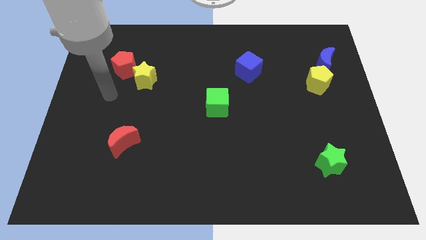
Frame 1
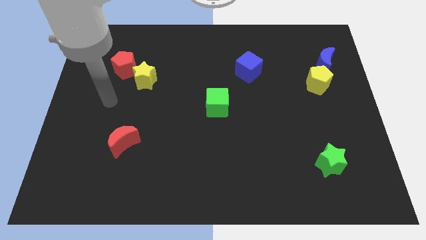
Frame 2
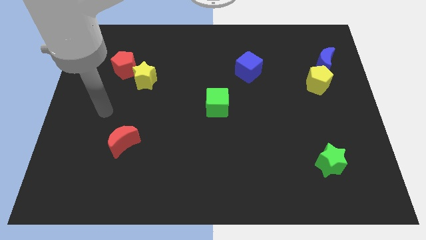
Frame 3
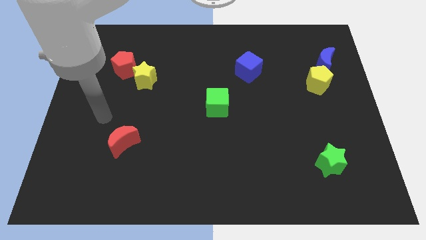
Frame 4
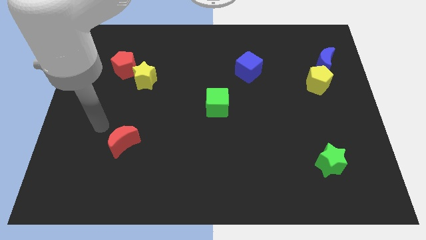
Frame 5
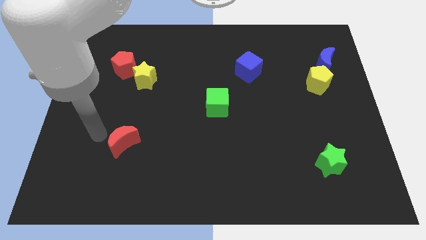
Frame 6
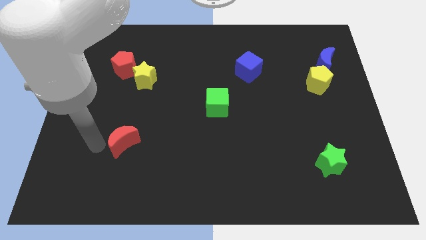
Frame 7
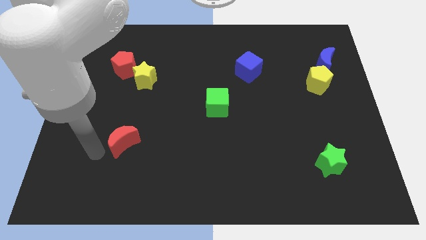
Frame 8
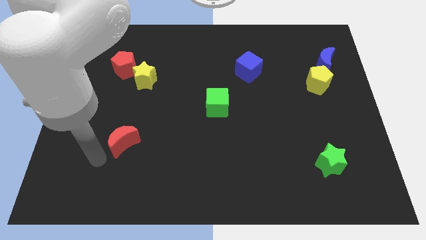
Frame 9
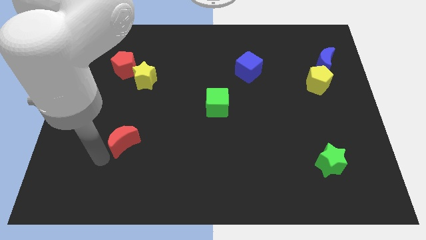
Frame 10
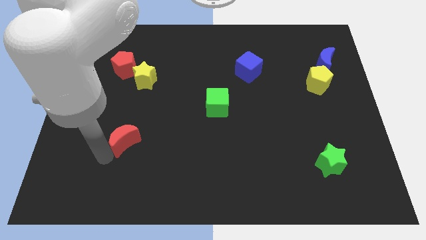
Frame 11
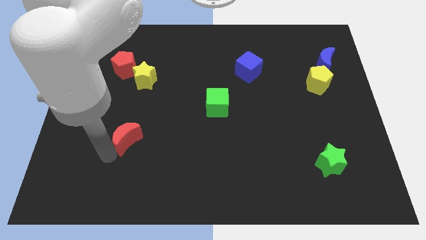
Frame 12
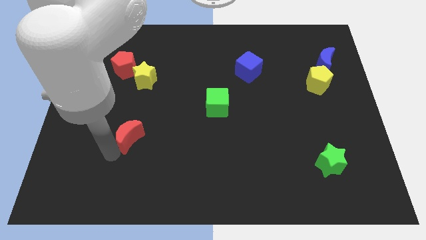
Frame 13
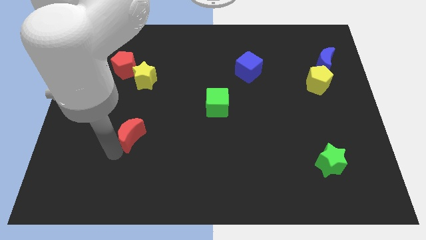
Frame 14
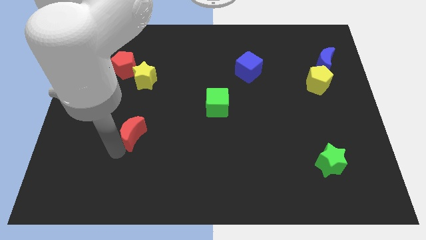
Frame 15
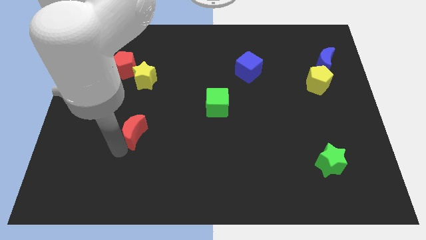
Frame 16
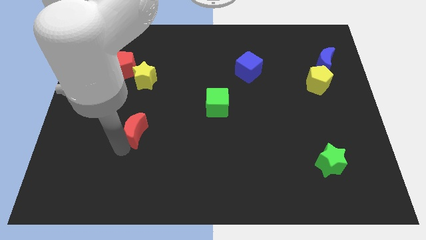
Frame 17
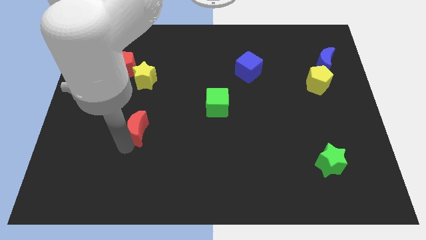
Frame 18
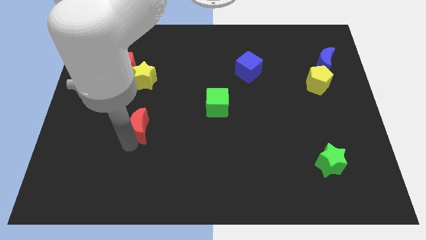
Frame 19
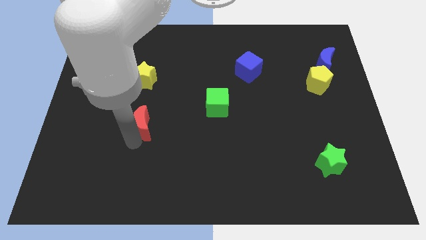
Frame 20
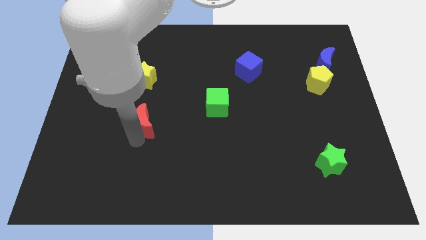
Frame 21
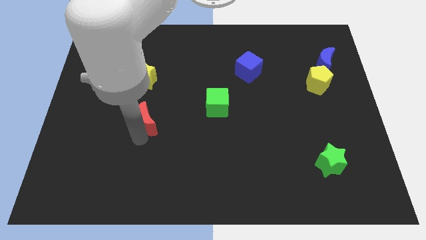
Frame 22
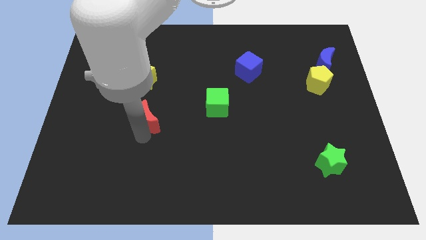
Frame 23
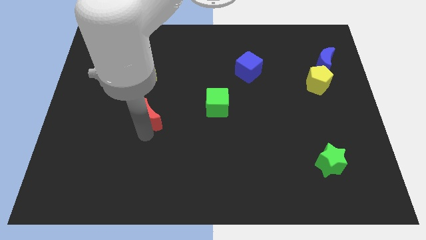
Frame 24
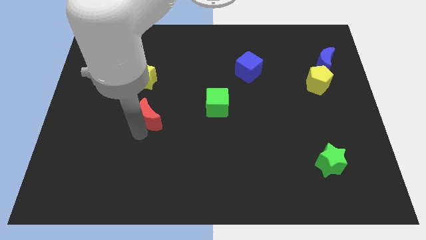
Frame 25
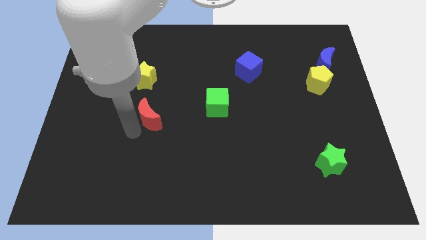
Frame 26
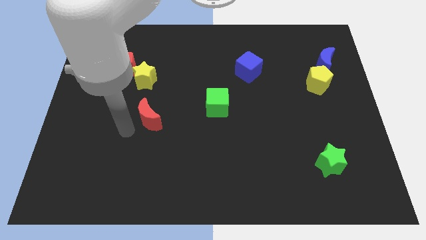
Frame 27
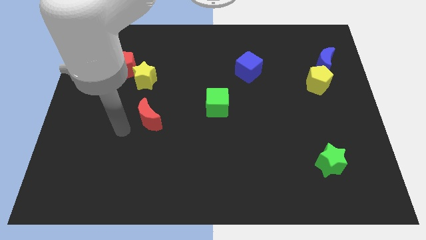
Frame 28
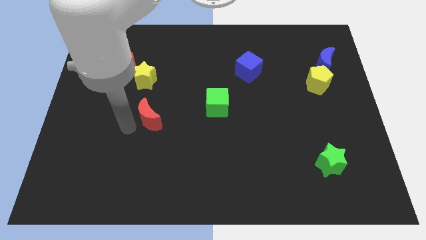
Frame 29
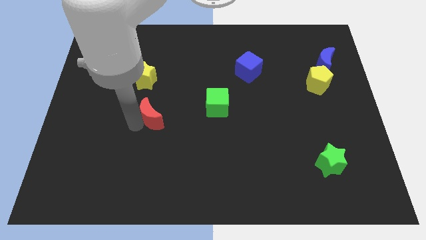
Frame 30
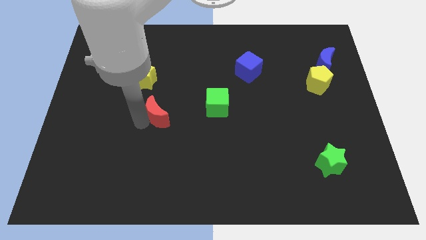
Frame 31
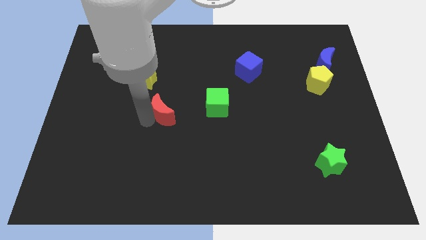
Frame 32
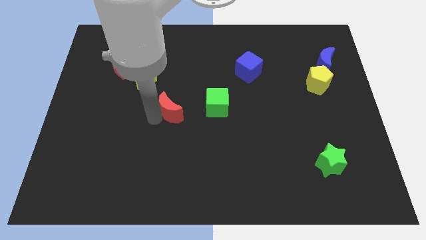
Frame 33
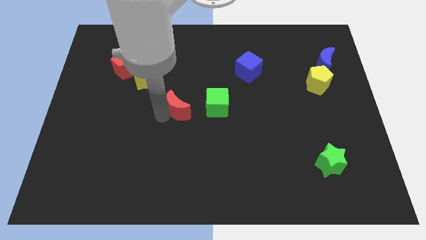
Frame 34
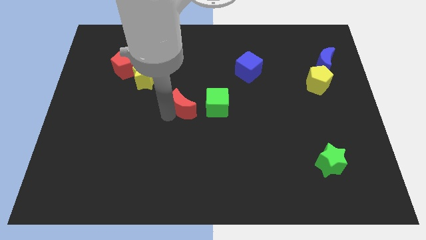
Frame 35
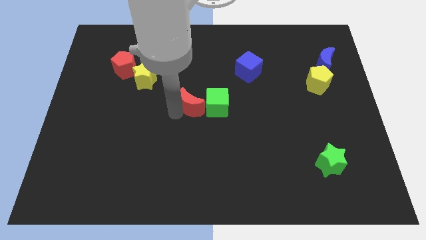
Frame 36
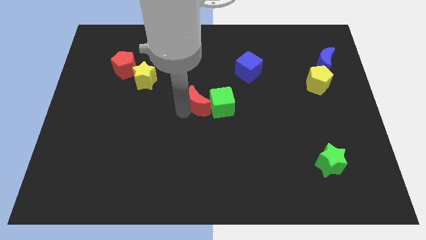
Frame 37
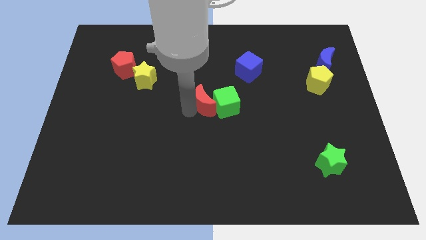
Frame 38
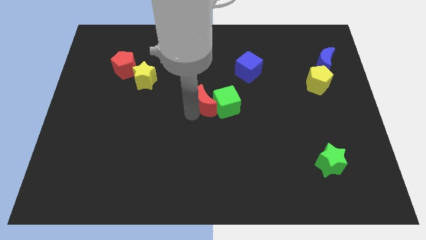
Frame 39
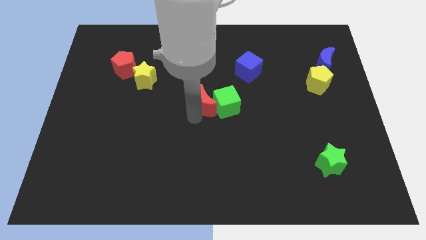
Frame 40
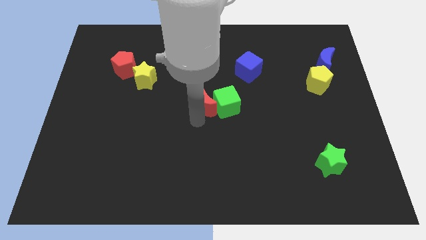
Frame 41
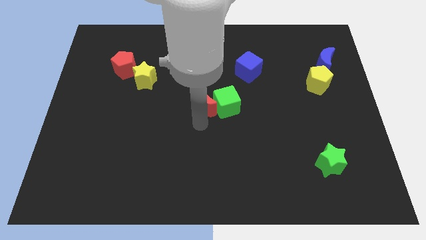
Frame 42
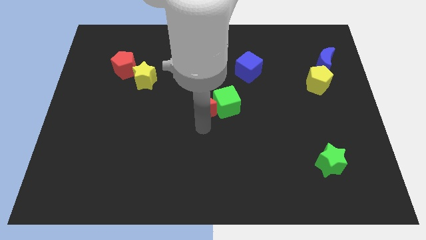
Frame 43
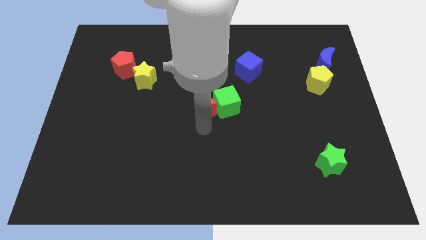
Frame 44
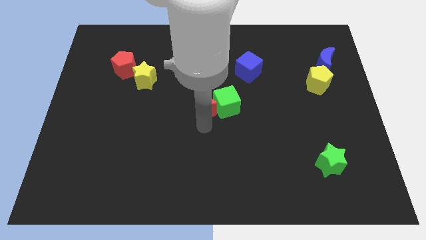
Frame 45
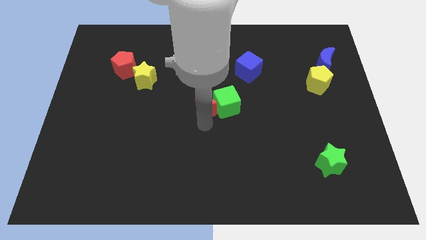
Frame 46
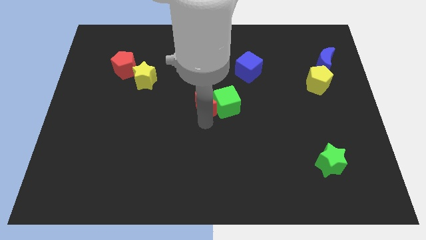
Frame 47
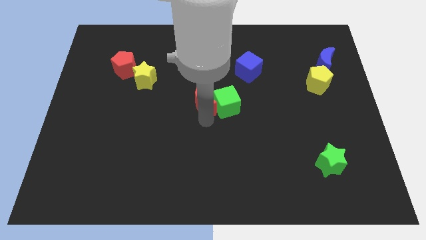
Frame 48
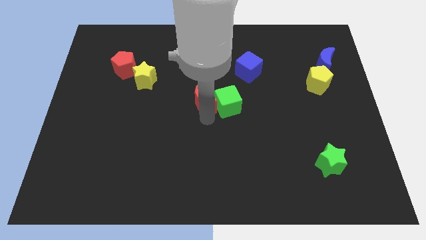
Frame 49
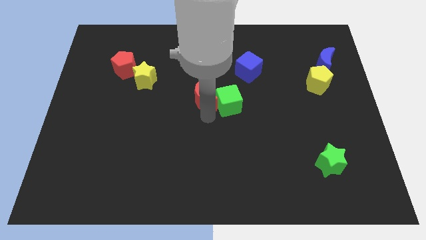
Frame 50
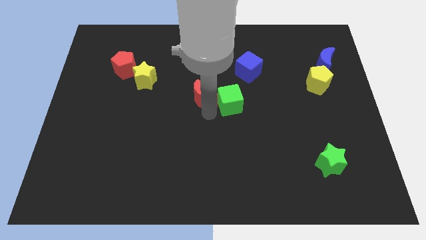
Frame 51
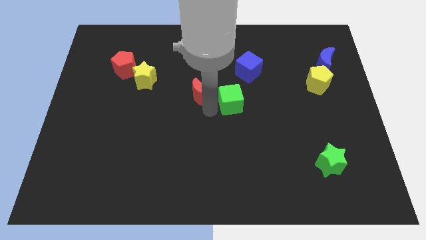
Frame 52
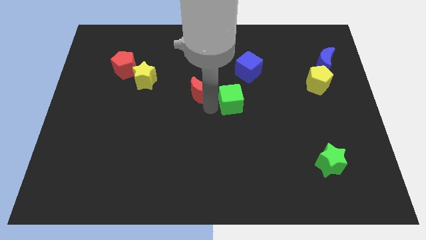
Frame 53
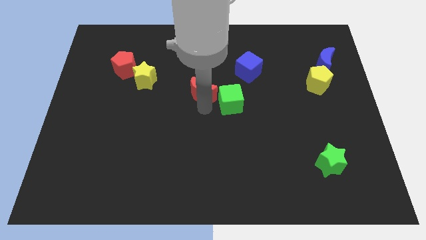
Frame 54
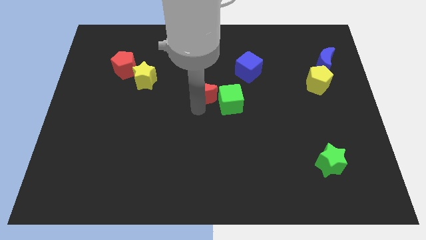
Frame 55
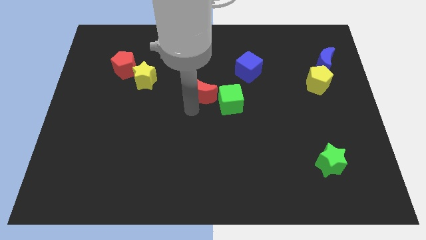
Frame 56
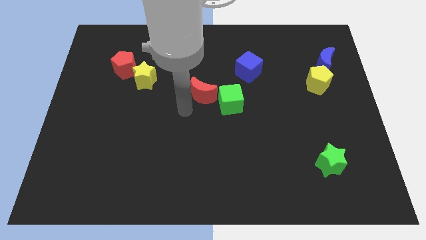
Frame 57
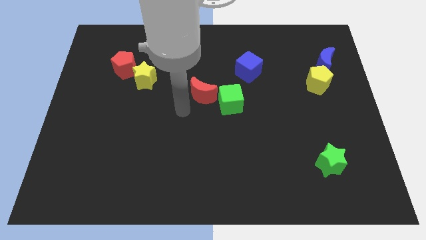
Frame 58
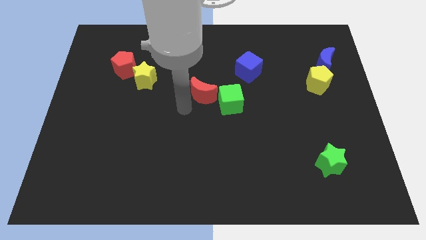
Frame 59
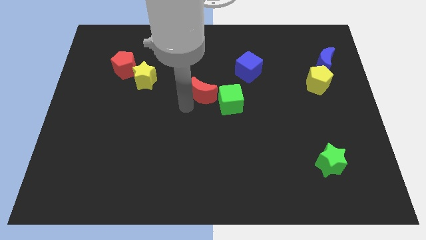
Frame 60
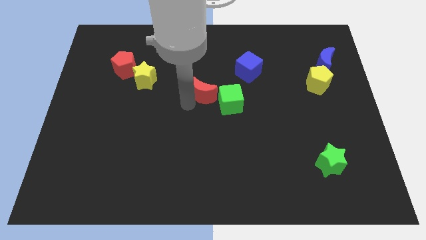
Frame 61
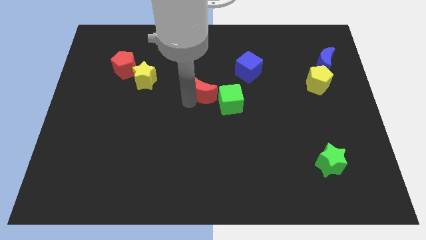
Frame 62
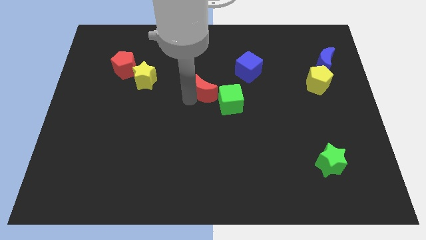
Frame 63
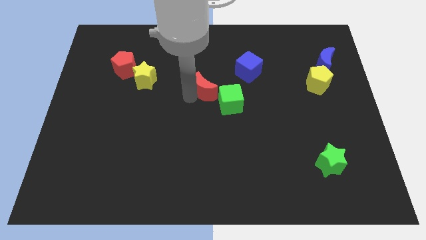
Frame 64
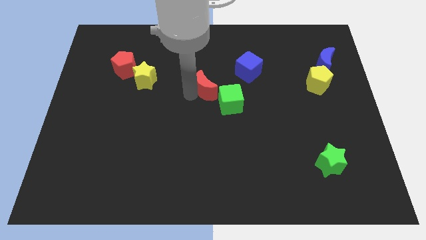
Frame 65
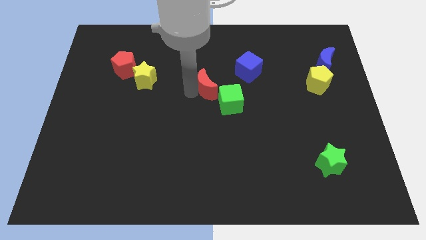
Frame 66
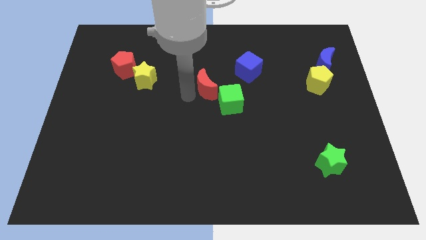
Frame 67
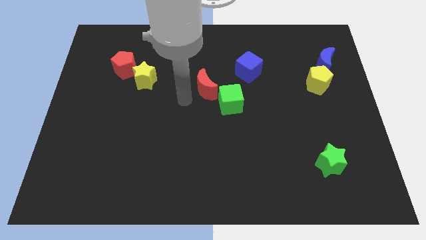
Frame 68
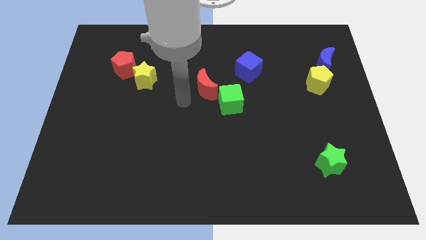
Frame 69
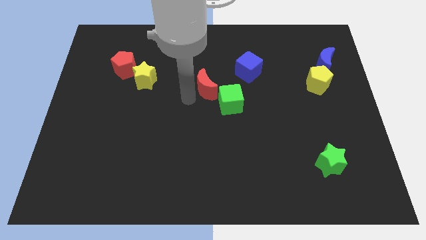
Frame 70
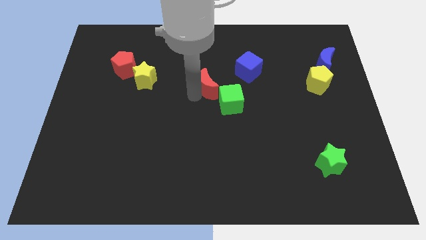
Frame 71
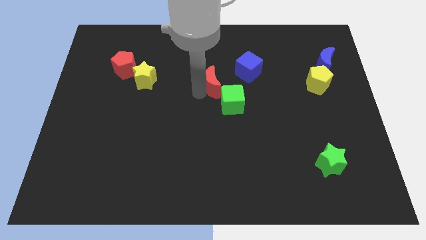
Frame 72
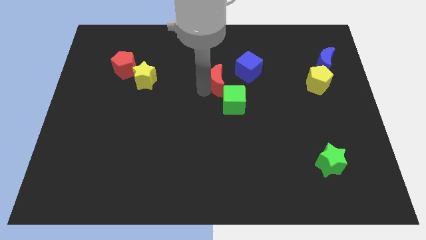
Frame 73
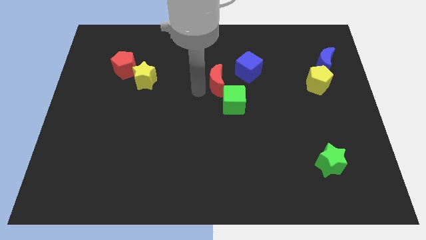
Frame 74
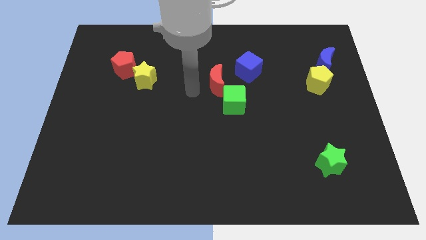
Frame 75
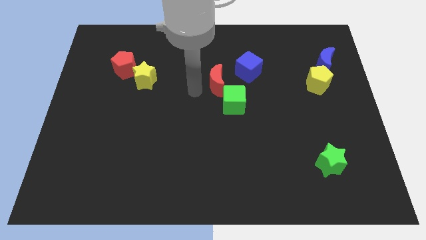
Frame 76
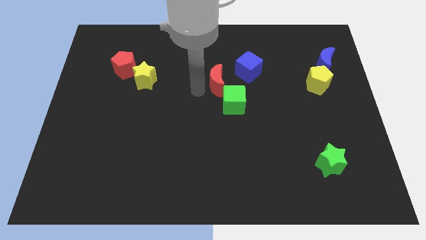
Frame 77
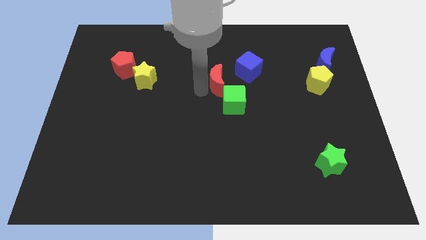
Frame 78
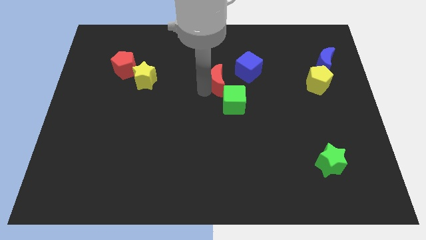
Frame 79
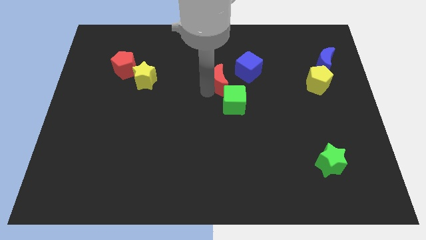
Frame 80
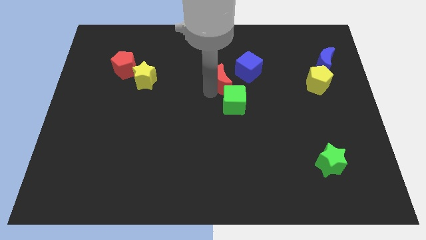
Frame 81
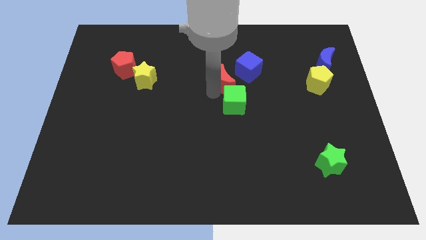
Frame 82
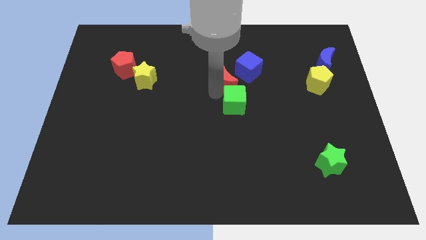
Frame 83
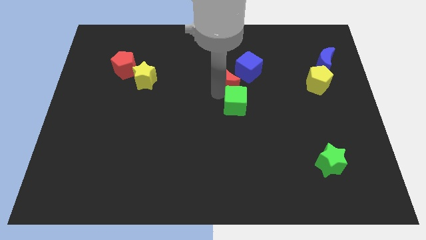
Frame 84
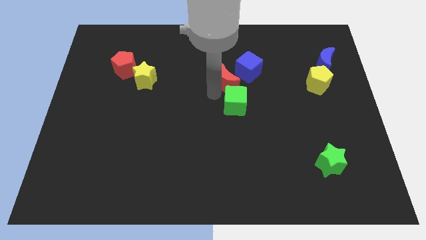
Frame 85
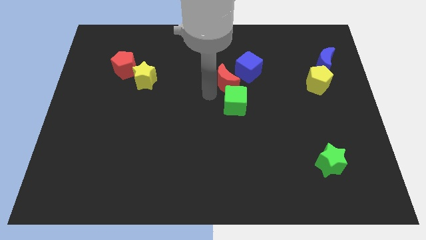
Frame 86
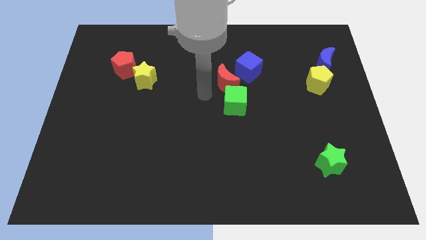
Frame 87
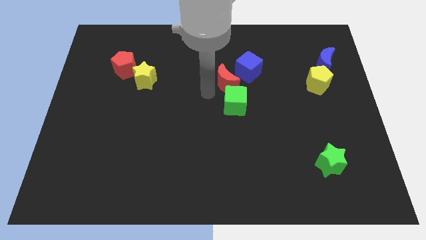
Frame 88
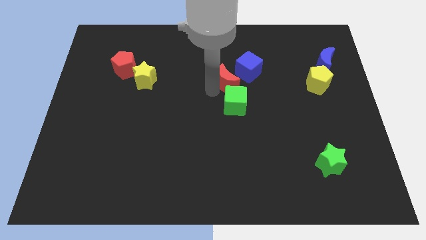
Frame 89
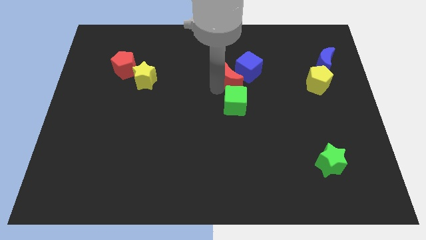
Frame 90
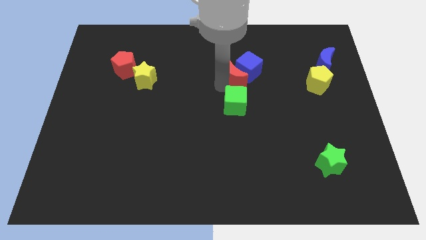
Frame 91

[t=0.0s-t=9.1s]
slide the red moon towards the blue cube
